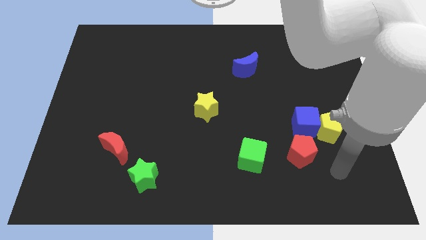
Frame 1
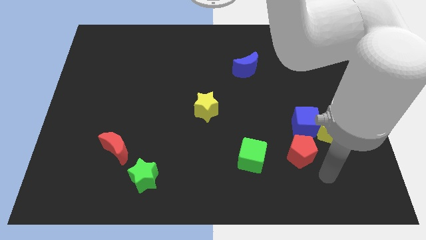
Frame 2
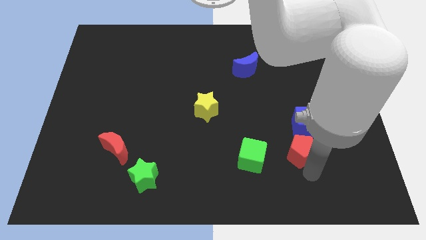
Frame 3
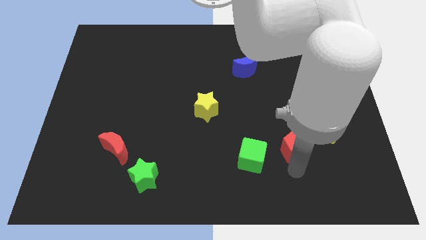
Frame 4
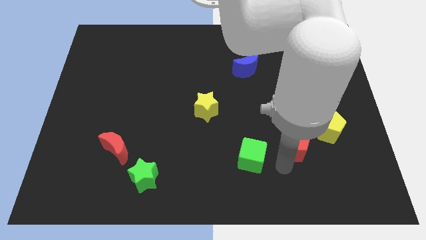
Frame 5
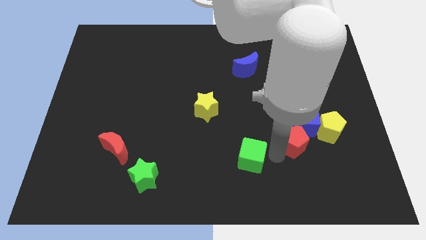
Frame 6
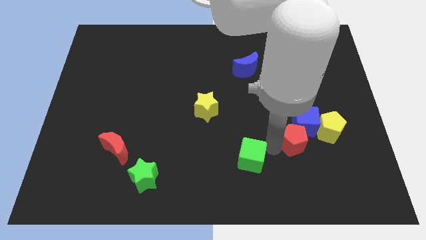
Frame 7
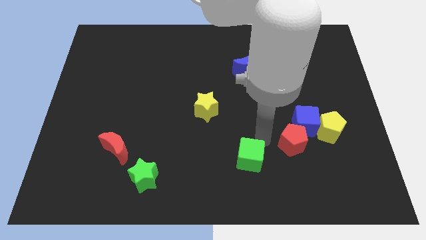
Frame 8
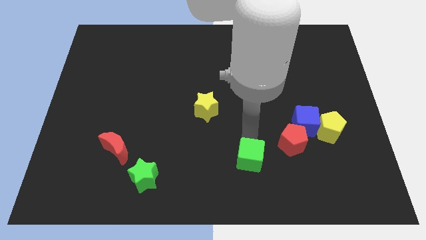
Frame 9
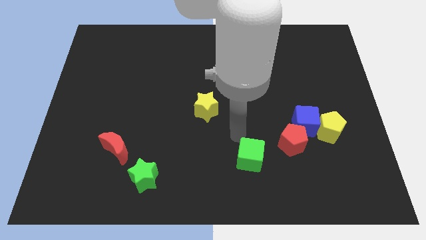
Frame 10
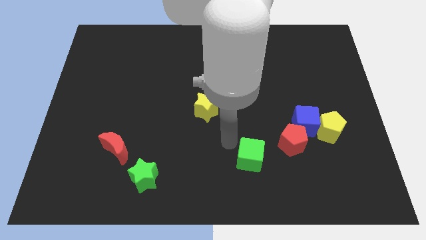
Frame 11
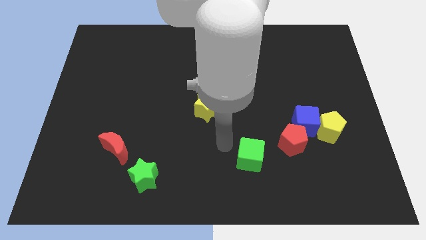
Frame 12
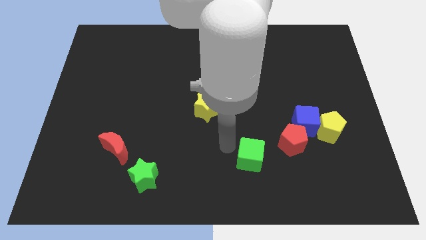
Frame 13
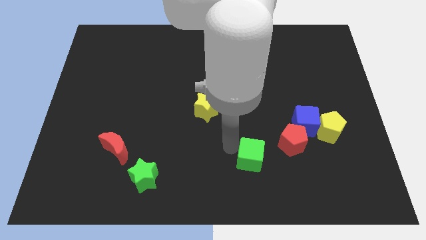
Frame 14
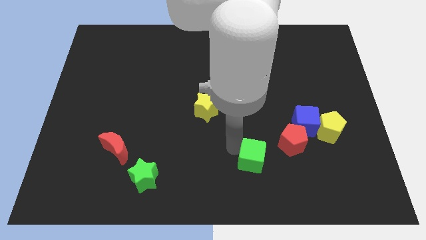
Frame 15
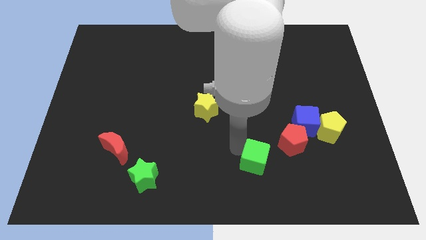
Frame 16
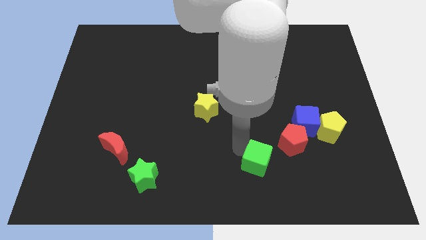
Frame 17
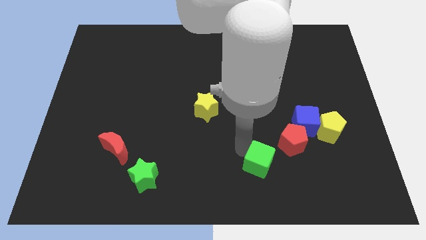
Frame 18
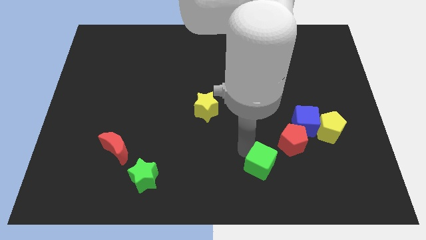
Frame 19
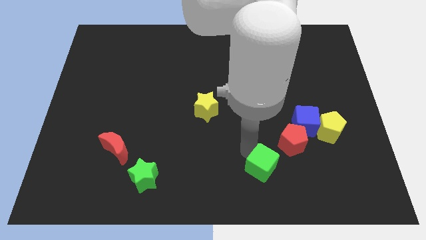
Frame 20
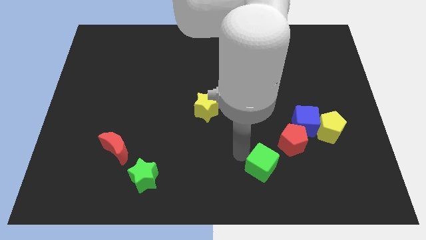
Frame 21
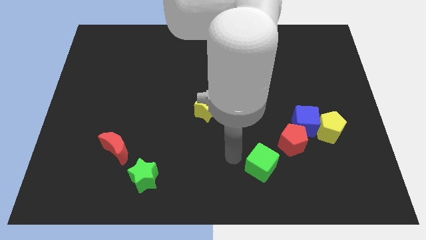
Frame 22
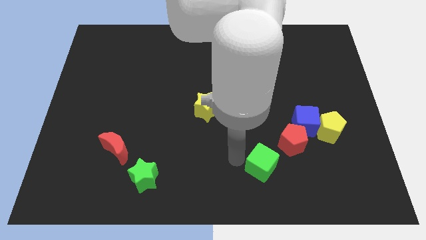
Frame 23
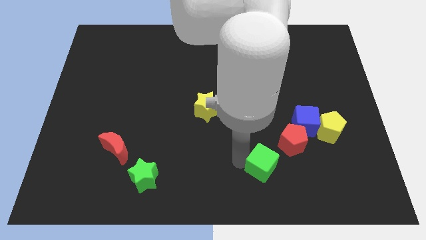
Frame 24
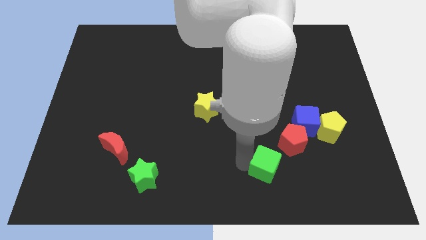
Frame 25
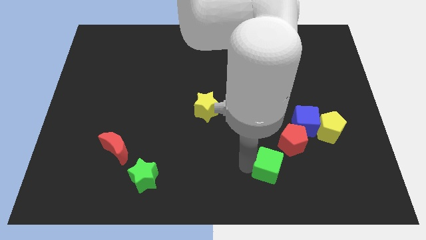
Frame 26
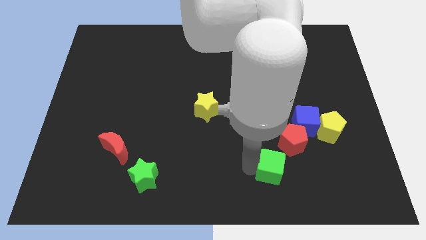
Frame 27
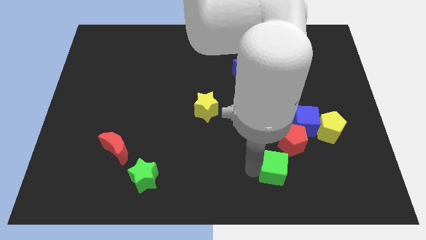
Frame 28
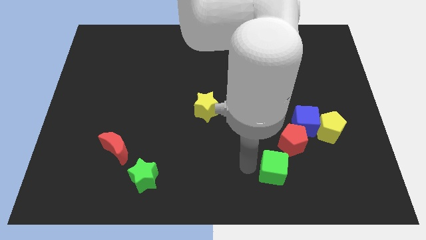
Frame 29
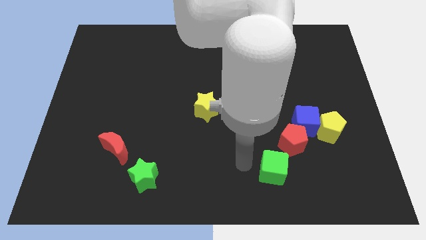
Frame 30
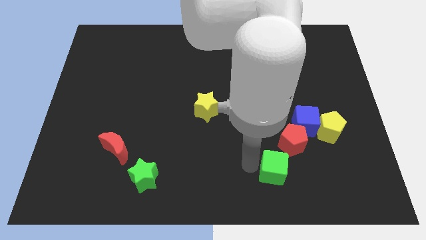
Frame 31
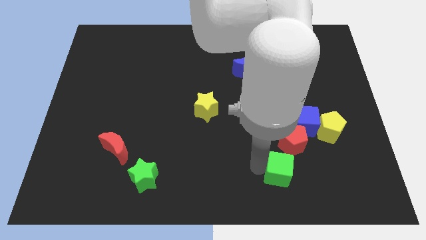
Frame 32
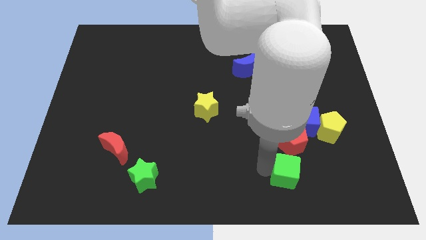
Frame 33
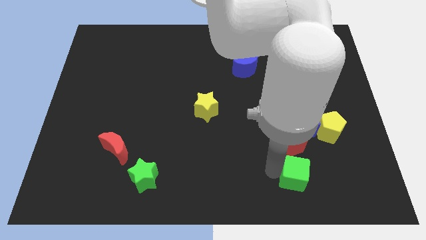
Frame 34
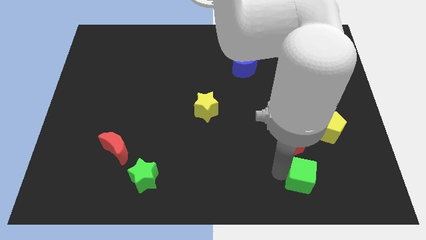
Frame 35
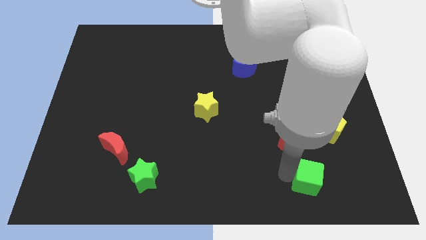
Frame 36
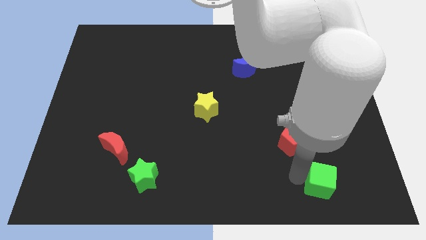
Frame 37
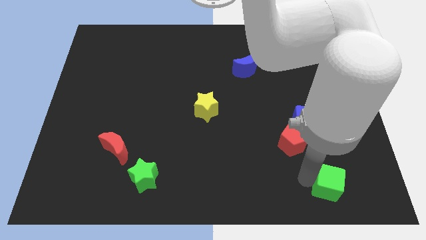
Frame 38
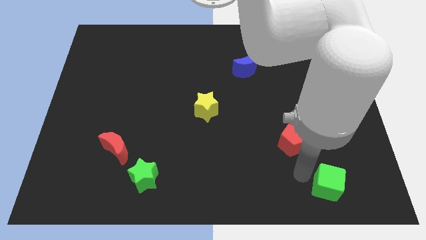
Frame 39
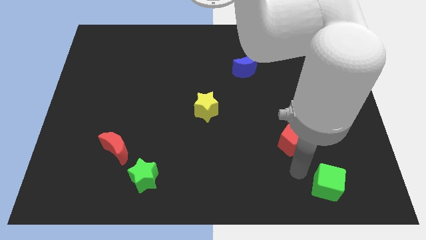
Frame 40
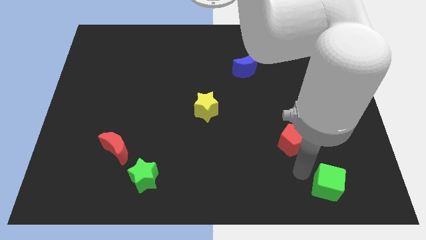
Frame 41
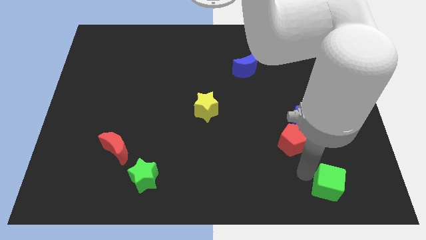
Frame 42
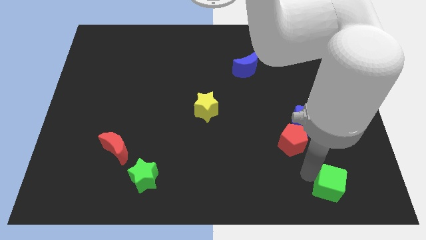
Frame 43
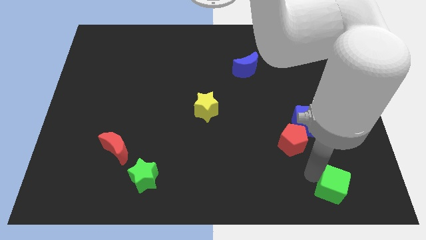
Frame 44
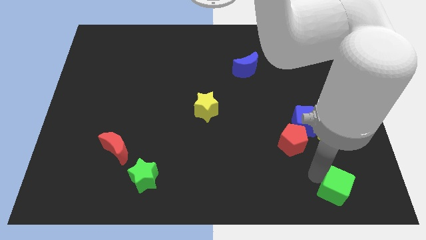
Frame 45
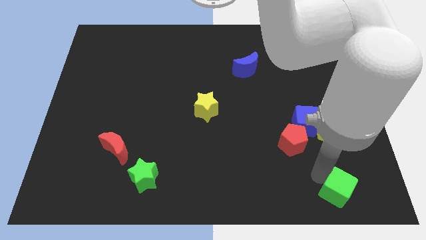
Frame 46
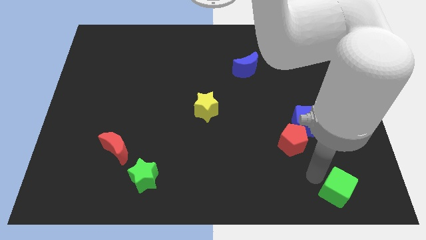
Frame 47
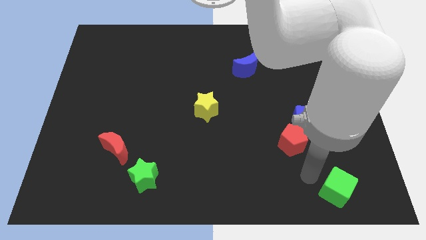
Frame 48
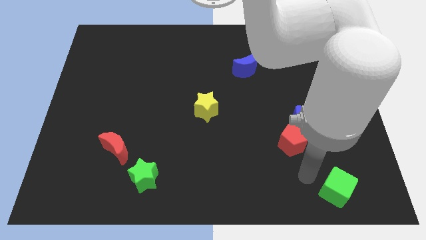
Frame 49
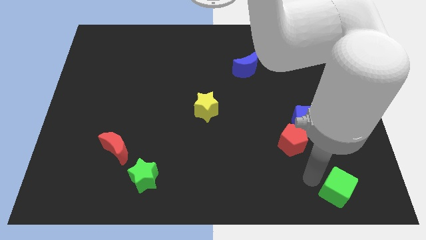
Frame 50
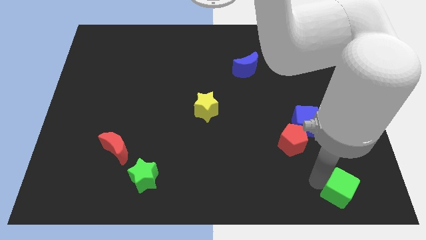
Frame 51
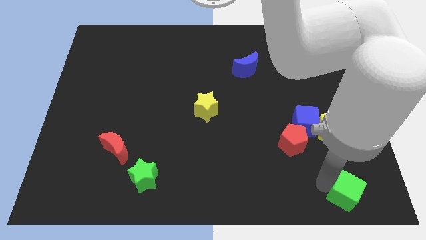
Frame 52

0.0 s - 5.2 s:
move the green cube to the bottom right corner

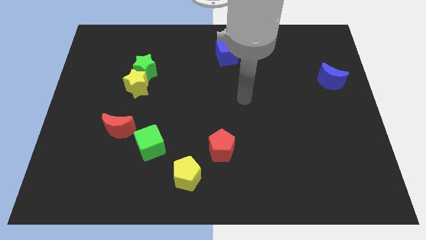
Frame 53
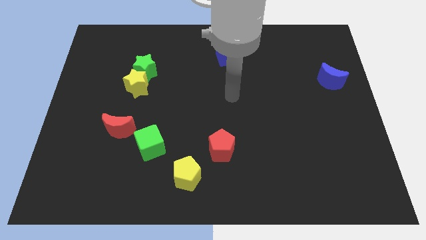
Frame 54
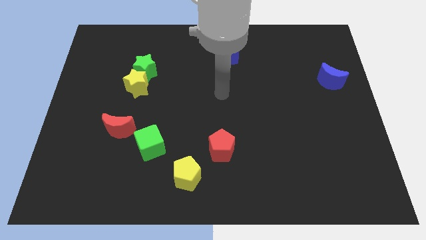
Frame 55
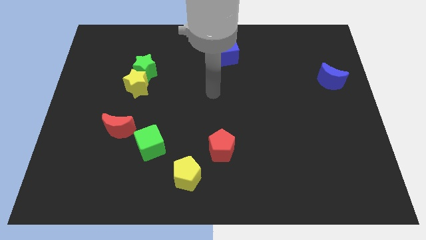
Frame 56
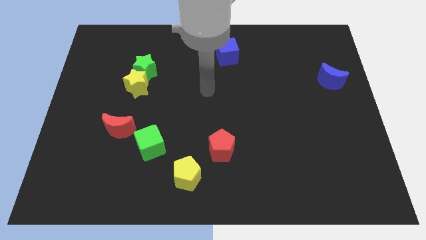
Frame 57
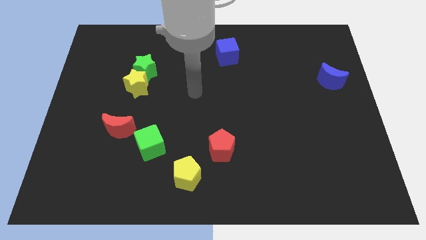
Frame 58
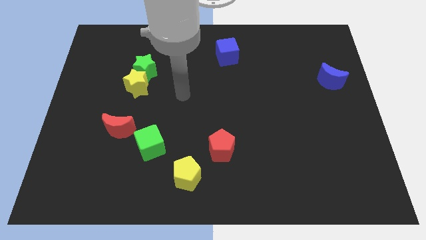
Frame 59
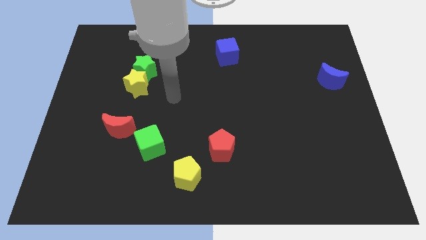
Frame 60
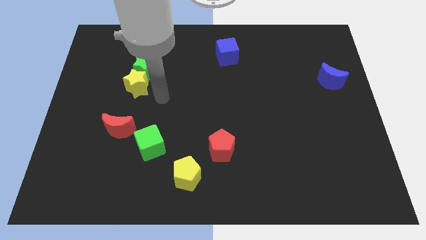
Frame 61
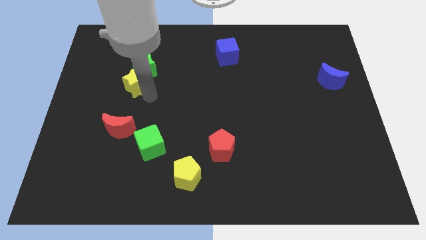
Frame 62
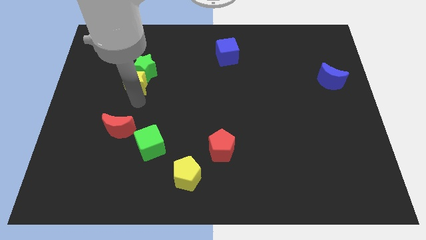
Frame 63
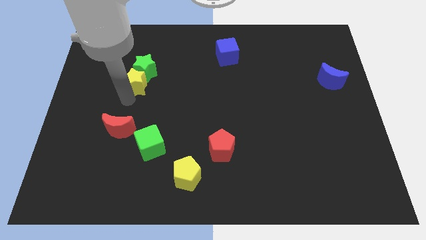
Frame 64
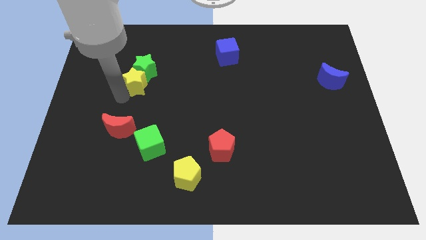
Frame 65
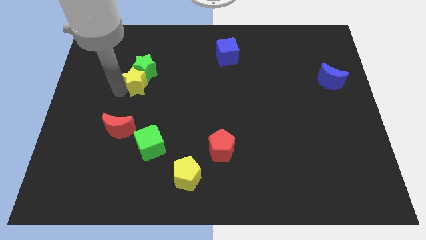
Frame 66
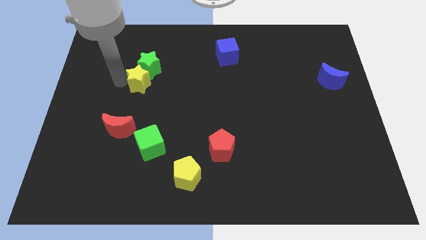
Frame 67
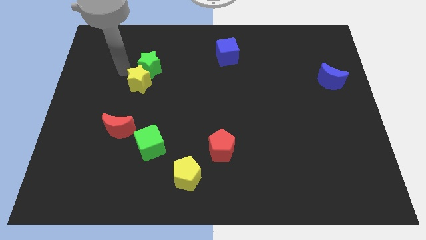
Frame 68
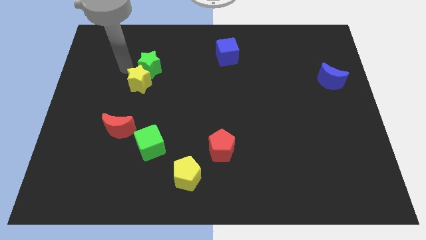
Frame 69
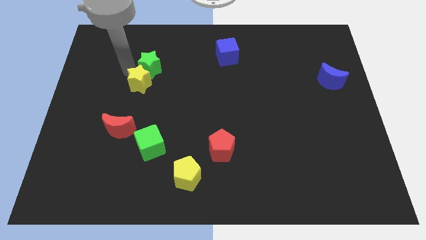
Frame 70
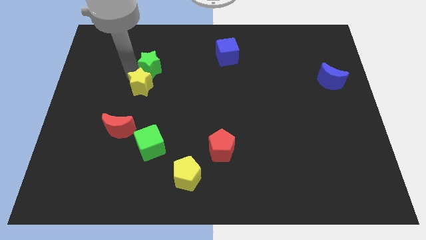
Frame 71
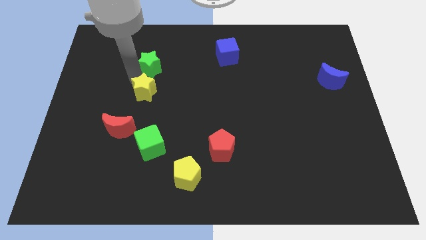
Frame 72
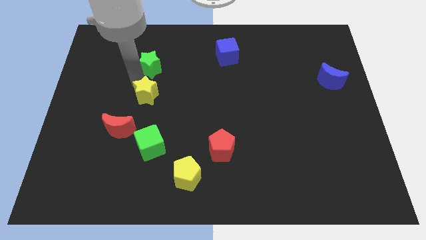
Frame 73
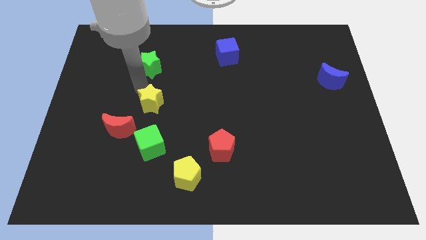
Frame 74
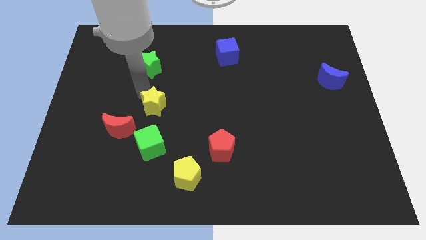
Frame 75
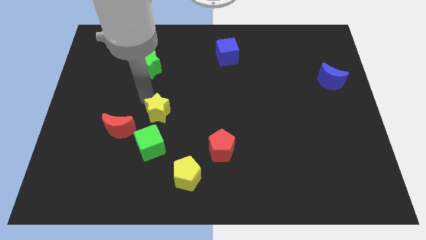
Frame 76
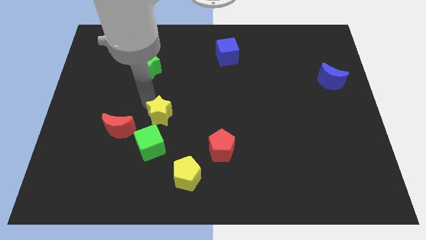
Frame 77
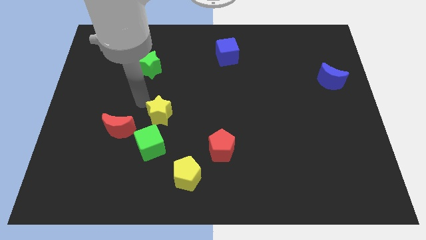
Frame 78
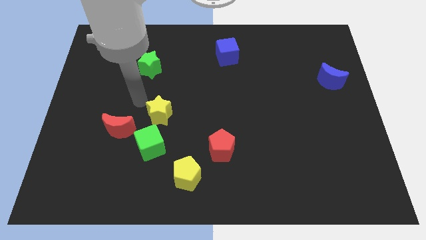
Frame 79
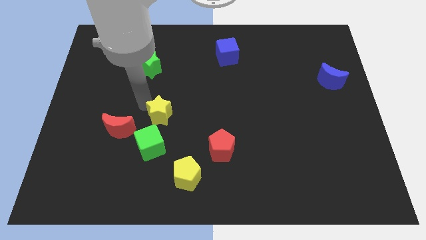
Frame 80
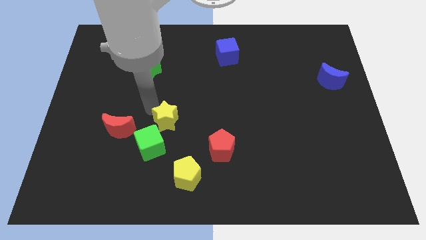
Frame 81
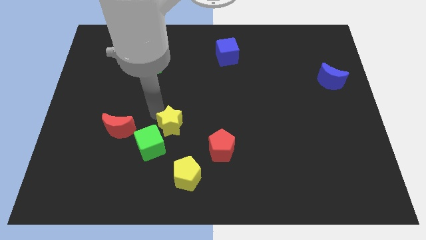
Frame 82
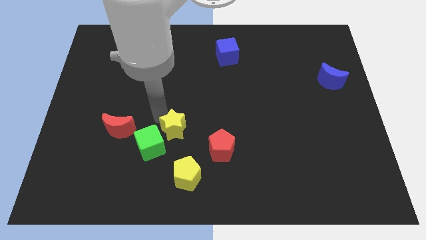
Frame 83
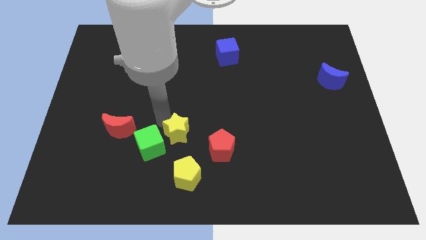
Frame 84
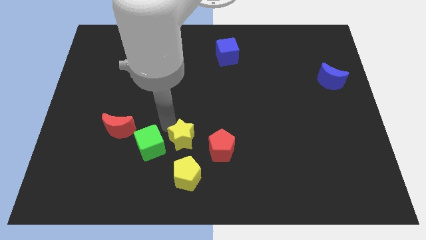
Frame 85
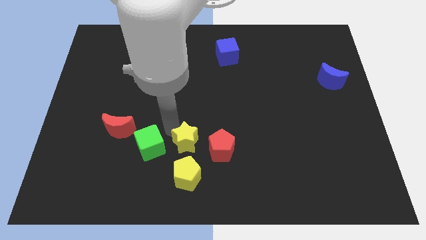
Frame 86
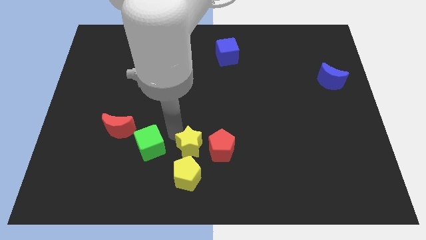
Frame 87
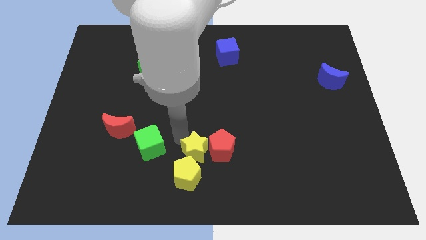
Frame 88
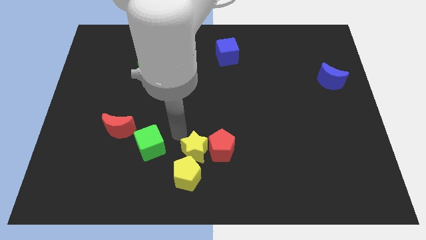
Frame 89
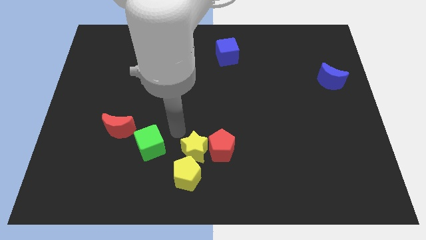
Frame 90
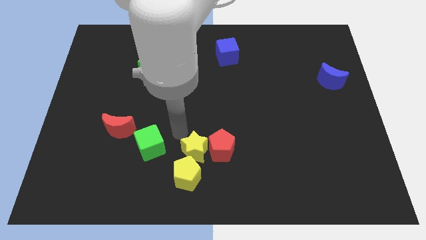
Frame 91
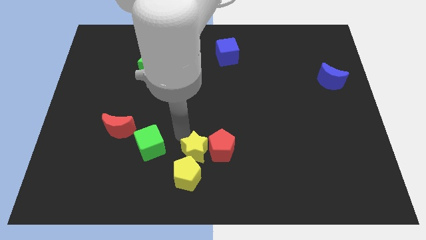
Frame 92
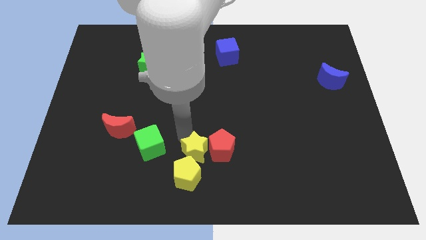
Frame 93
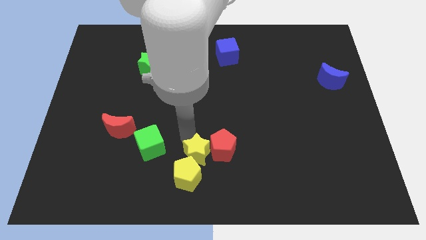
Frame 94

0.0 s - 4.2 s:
put the yellow star to the bottom
